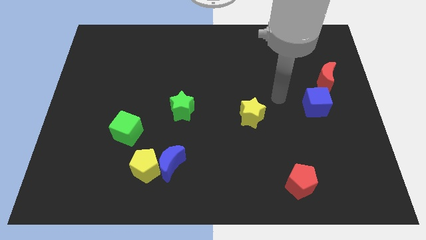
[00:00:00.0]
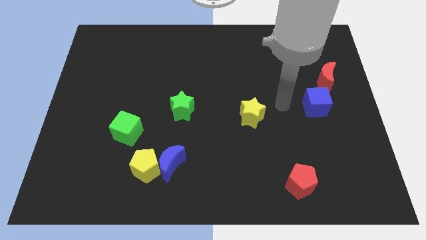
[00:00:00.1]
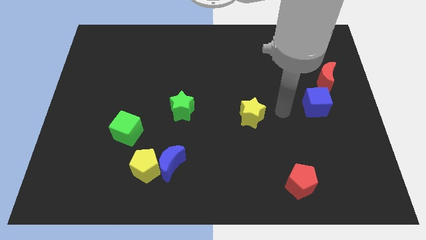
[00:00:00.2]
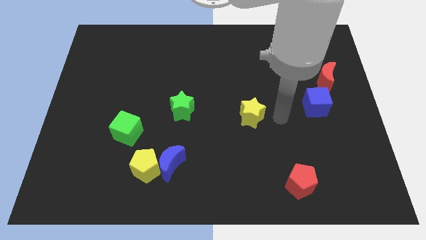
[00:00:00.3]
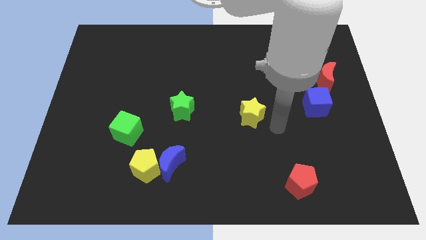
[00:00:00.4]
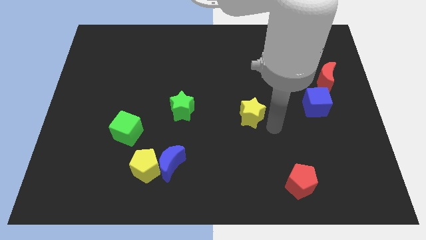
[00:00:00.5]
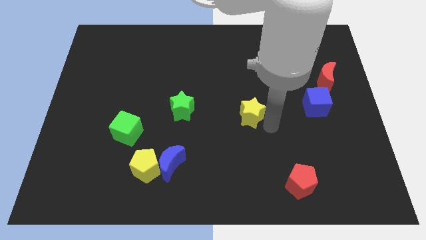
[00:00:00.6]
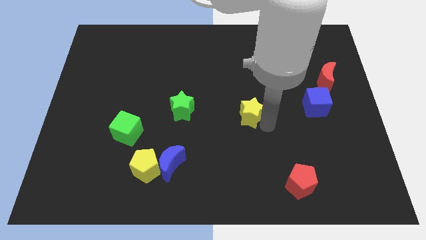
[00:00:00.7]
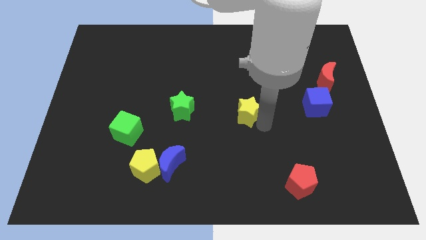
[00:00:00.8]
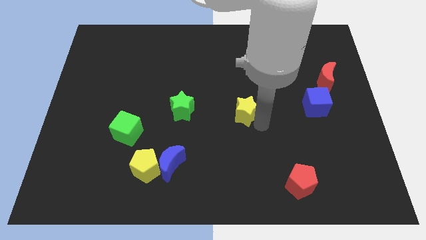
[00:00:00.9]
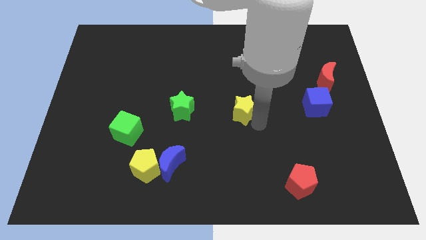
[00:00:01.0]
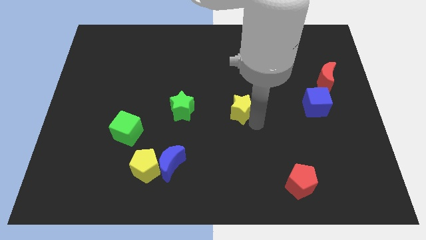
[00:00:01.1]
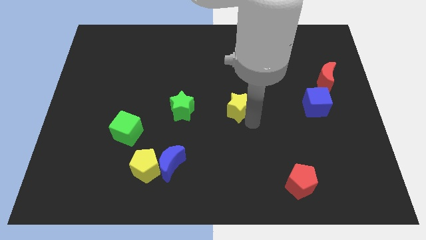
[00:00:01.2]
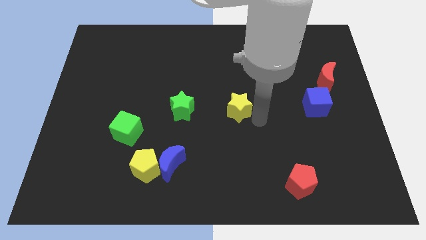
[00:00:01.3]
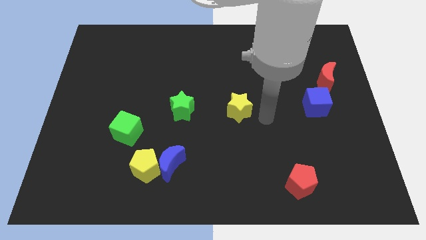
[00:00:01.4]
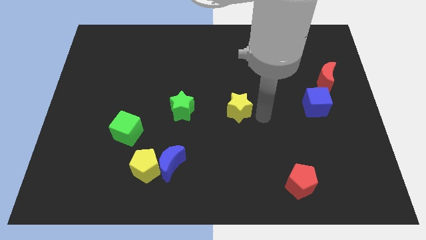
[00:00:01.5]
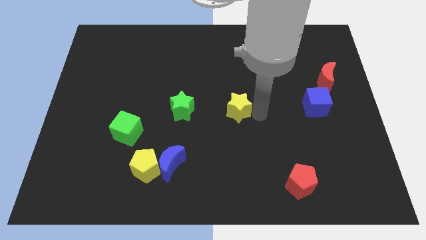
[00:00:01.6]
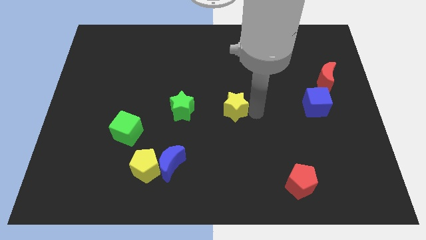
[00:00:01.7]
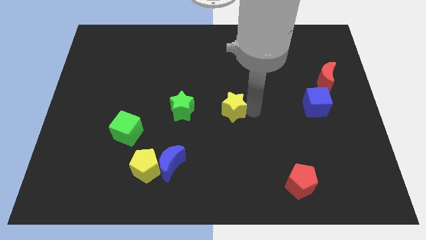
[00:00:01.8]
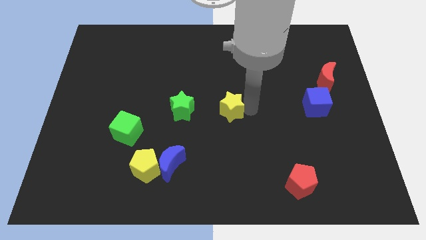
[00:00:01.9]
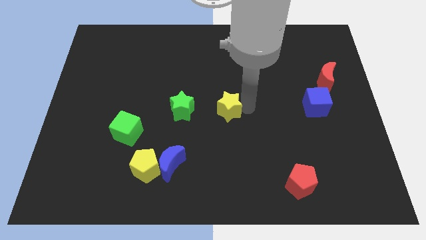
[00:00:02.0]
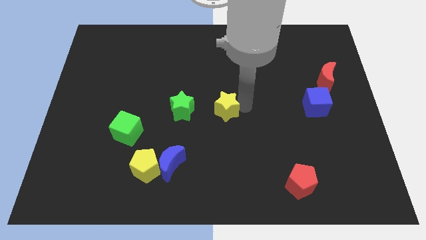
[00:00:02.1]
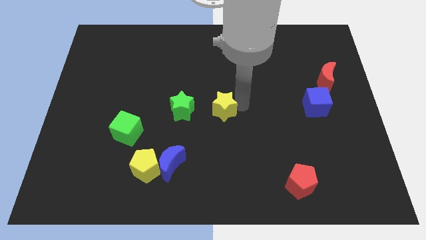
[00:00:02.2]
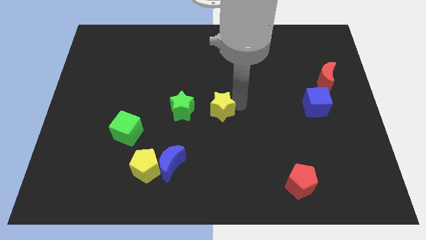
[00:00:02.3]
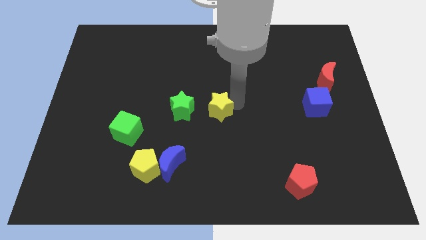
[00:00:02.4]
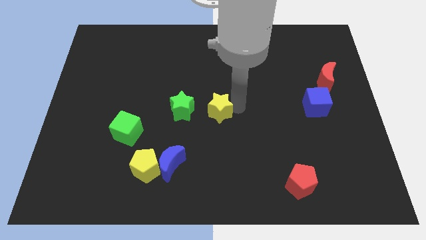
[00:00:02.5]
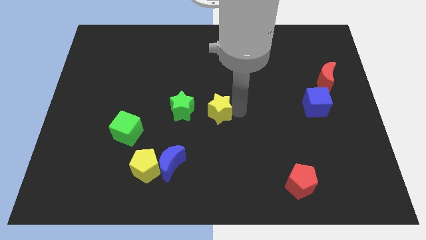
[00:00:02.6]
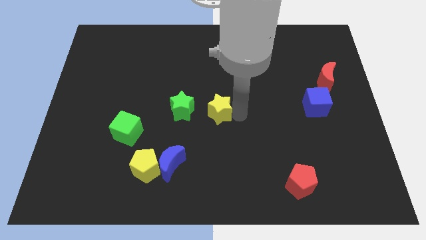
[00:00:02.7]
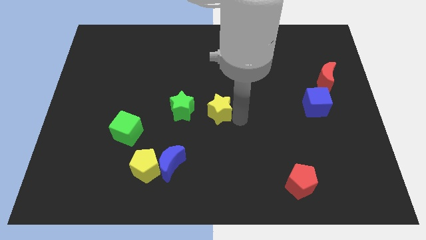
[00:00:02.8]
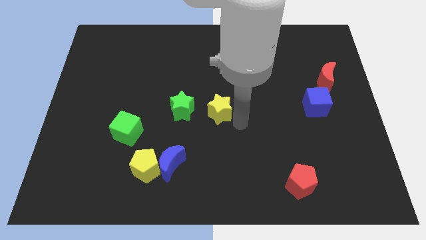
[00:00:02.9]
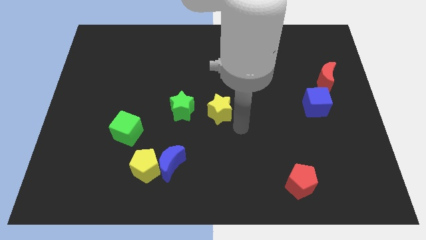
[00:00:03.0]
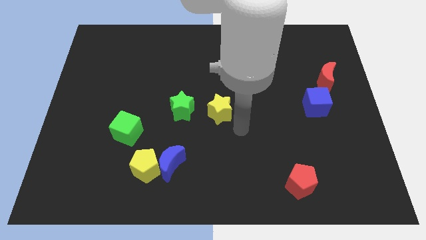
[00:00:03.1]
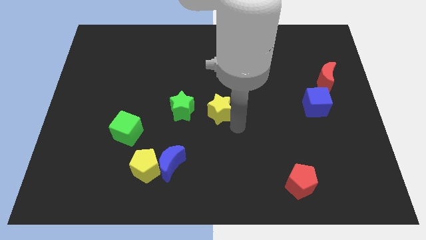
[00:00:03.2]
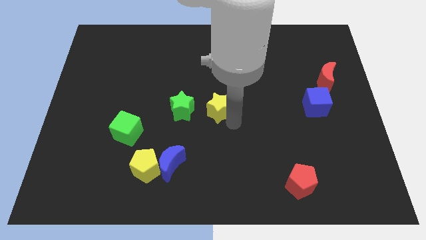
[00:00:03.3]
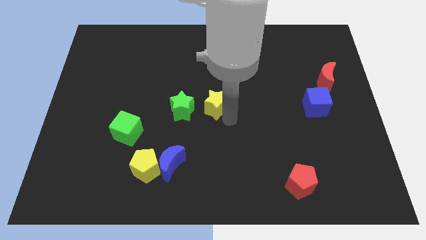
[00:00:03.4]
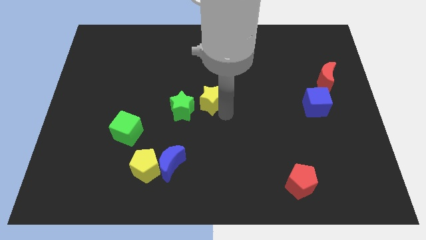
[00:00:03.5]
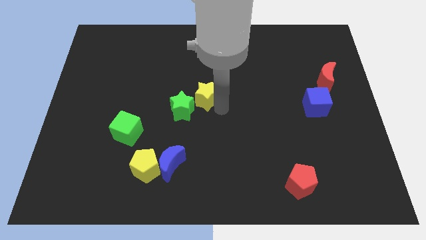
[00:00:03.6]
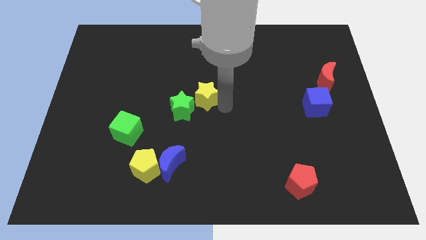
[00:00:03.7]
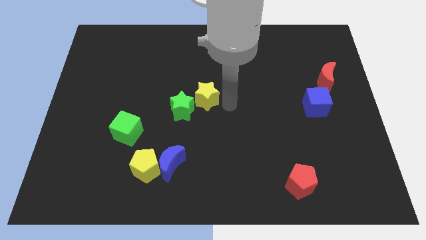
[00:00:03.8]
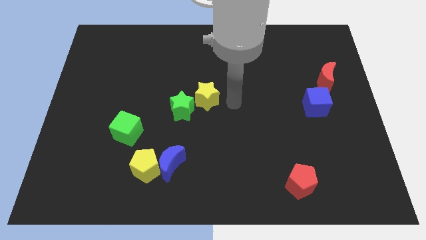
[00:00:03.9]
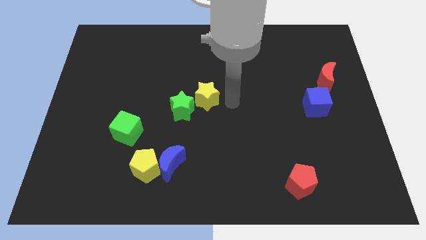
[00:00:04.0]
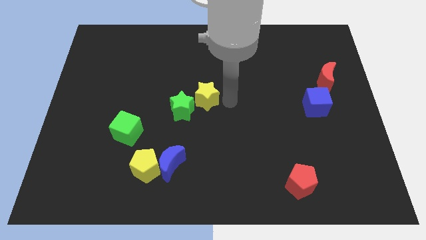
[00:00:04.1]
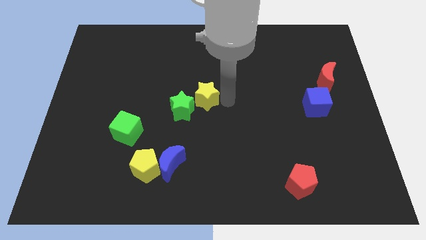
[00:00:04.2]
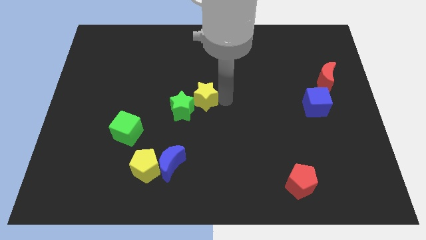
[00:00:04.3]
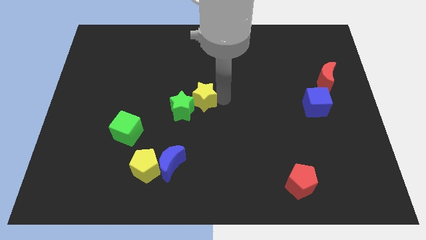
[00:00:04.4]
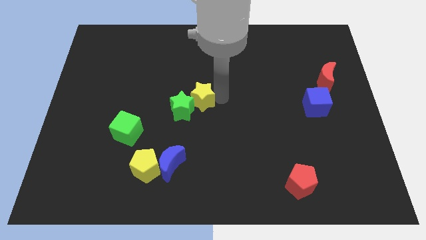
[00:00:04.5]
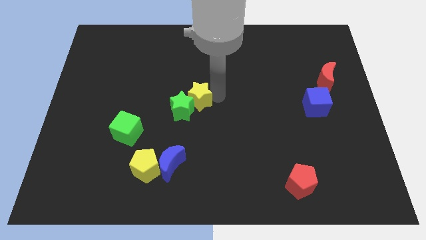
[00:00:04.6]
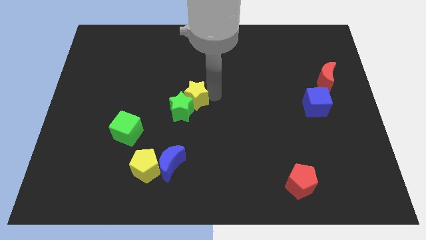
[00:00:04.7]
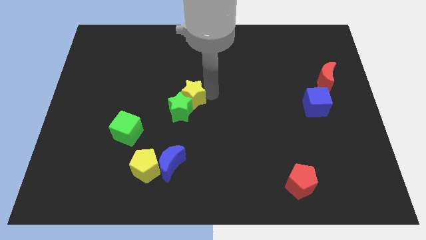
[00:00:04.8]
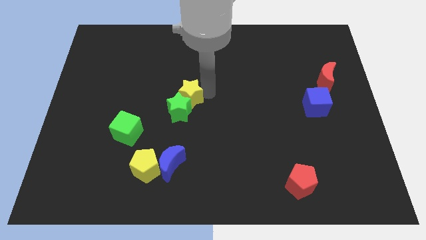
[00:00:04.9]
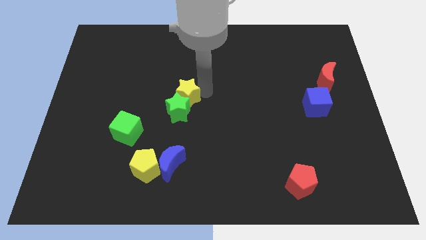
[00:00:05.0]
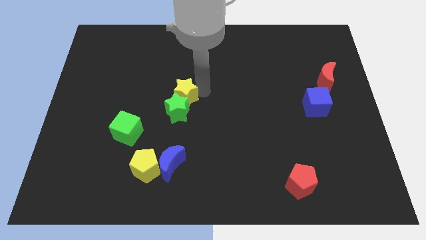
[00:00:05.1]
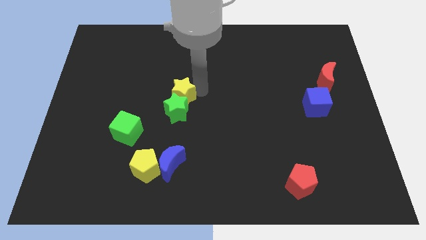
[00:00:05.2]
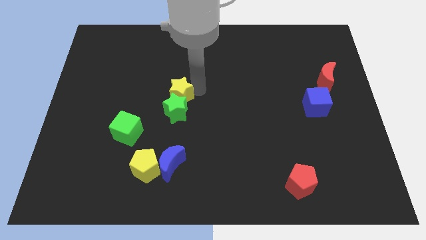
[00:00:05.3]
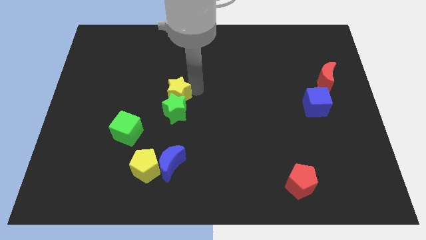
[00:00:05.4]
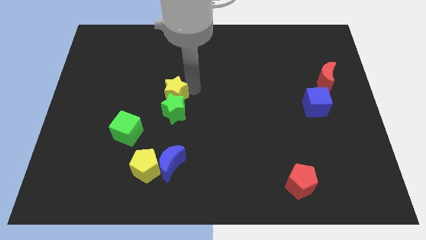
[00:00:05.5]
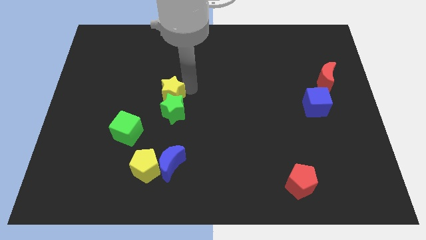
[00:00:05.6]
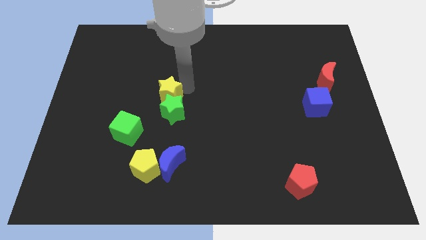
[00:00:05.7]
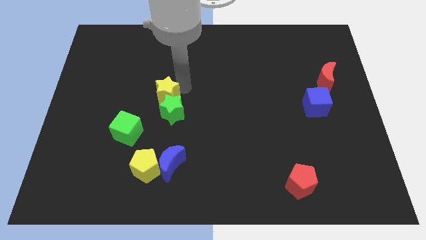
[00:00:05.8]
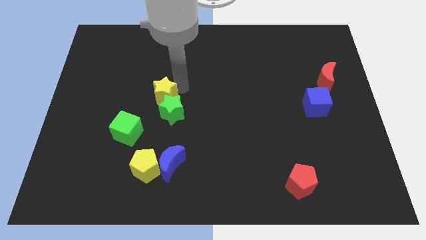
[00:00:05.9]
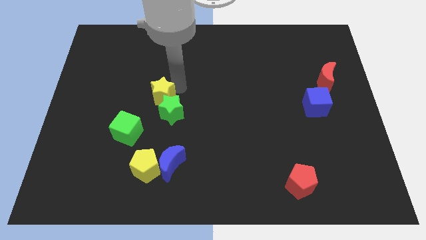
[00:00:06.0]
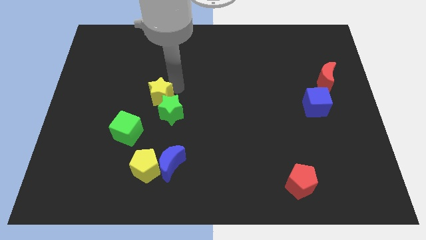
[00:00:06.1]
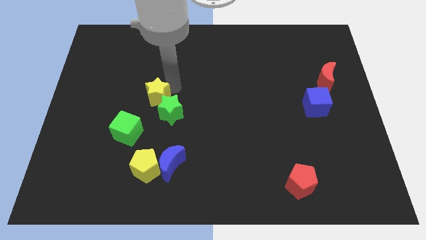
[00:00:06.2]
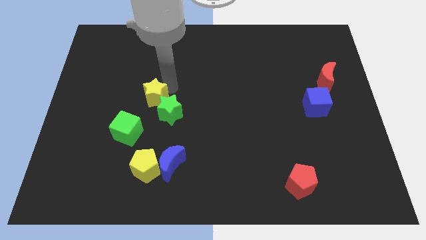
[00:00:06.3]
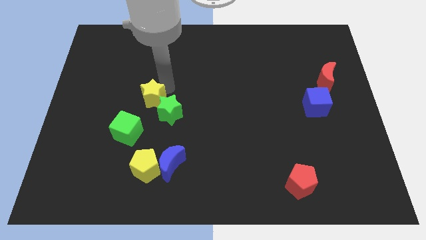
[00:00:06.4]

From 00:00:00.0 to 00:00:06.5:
put the yellow star to the top of the green cube
